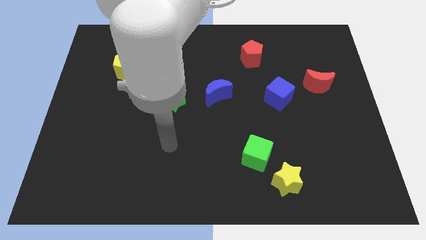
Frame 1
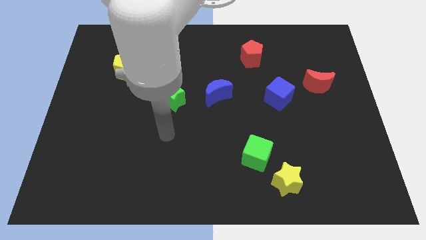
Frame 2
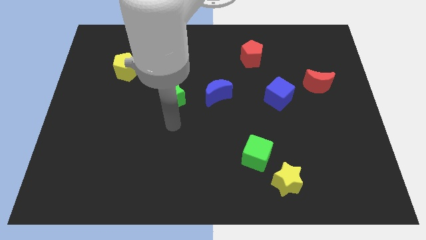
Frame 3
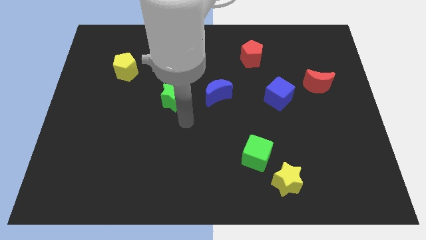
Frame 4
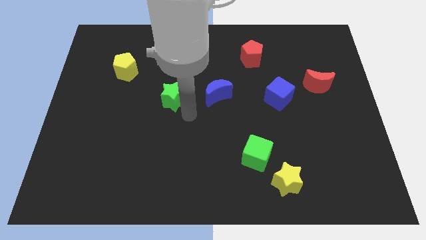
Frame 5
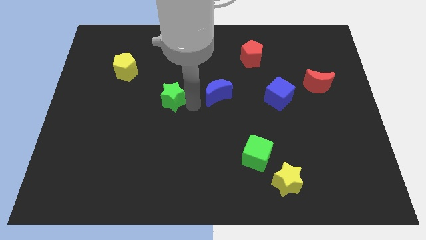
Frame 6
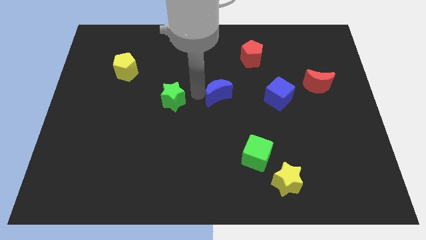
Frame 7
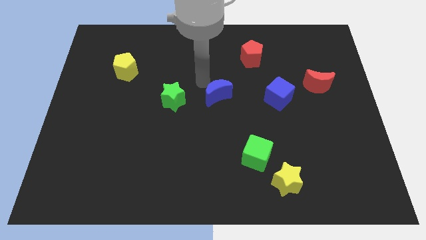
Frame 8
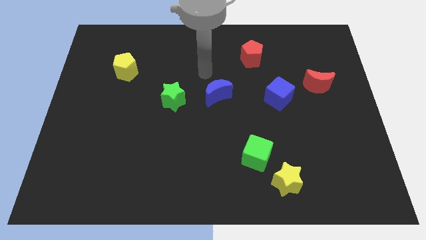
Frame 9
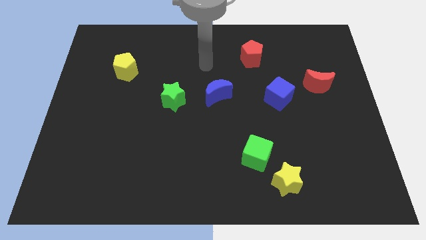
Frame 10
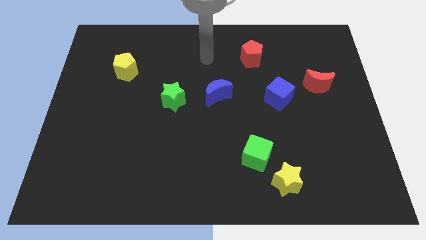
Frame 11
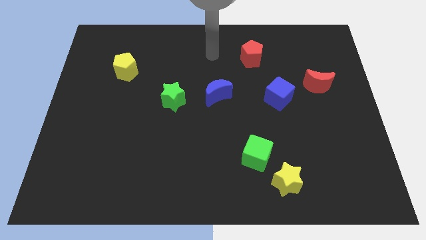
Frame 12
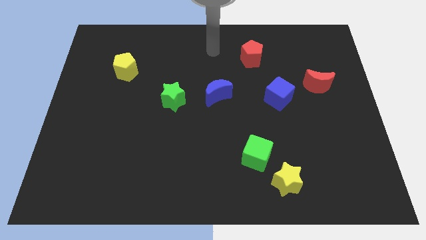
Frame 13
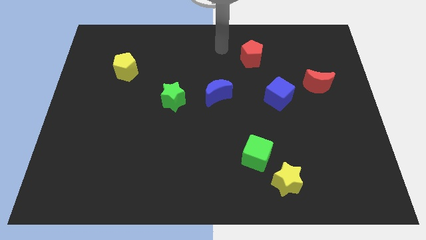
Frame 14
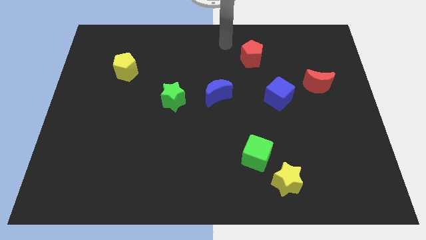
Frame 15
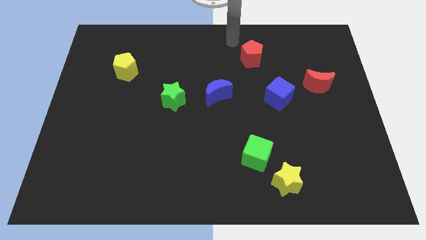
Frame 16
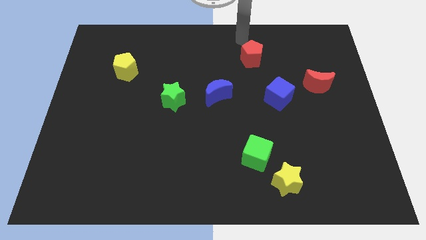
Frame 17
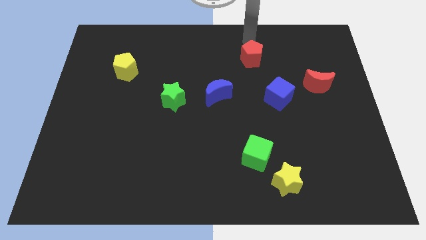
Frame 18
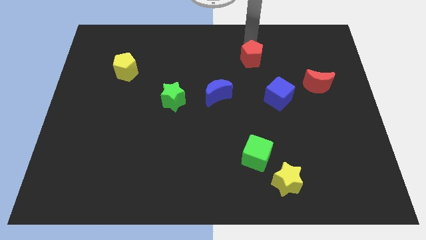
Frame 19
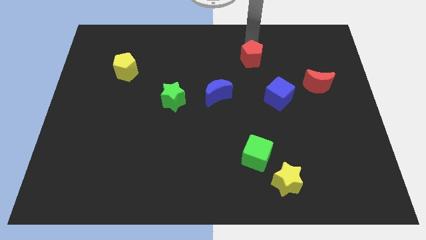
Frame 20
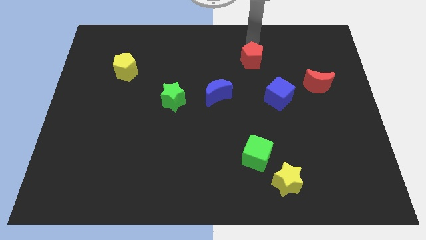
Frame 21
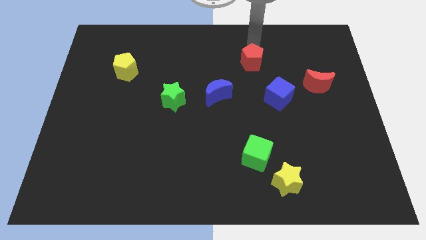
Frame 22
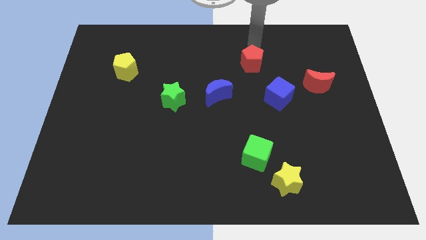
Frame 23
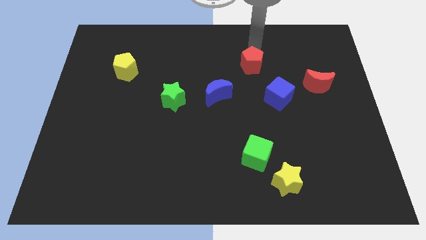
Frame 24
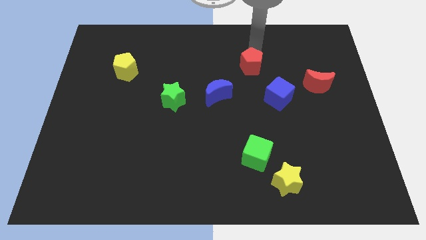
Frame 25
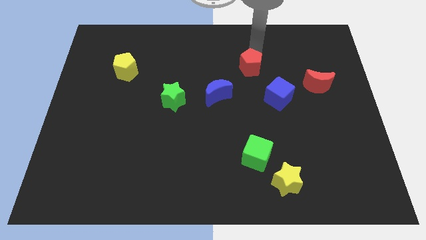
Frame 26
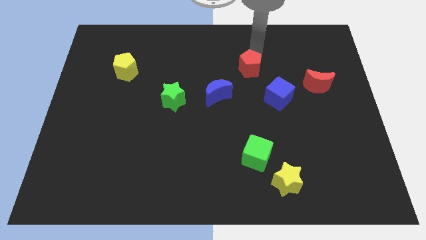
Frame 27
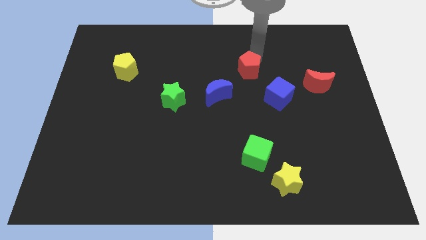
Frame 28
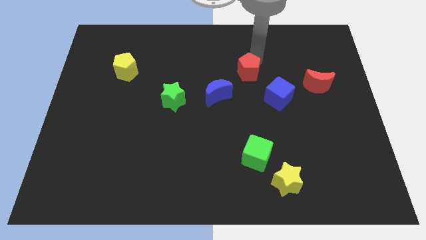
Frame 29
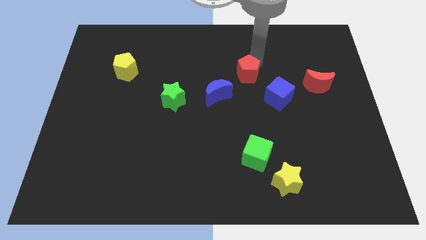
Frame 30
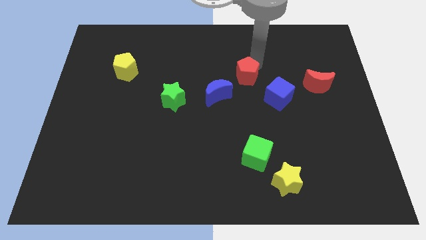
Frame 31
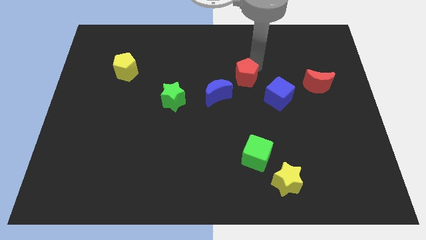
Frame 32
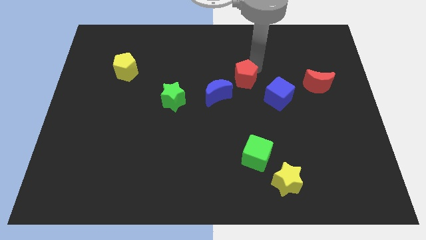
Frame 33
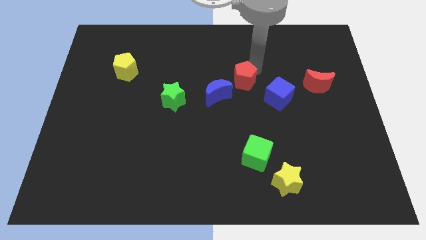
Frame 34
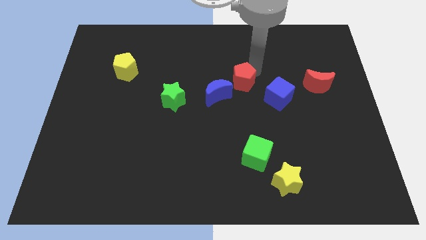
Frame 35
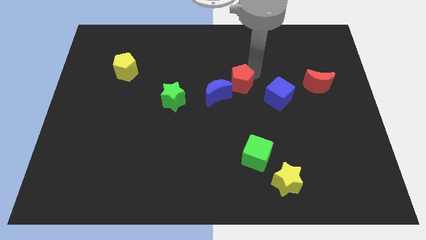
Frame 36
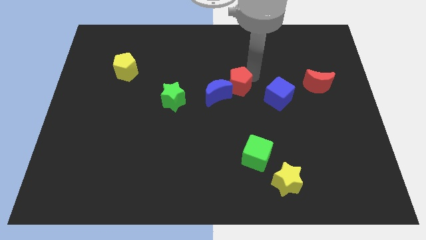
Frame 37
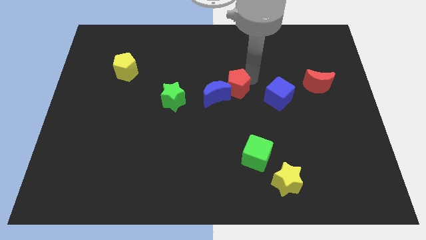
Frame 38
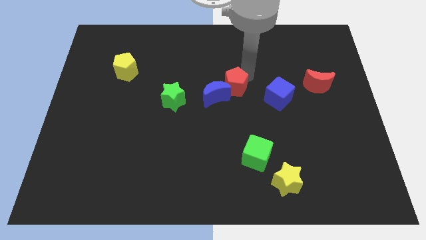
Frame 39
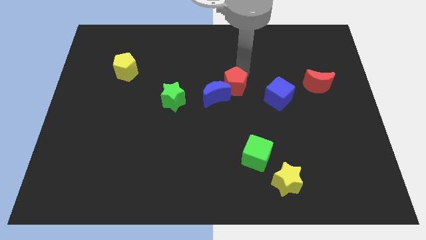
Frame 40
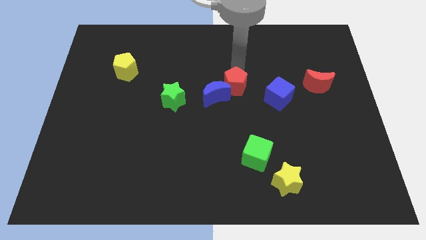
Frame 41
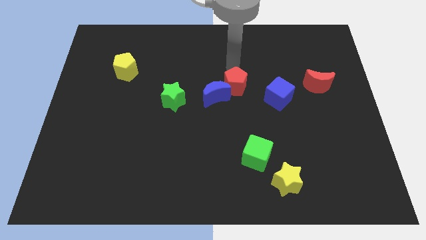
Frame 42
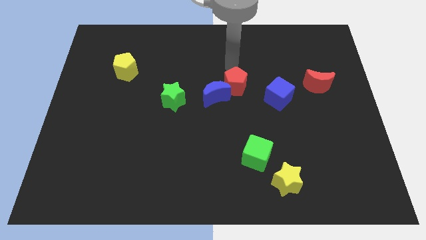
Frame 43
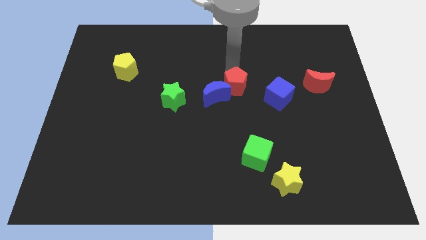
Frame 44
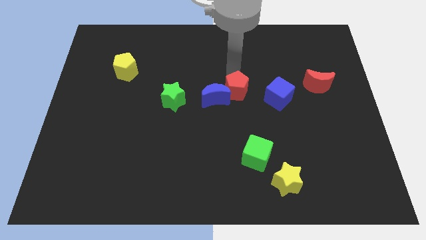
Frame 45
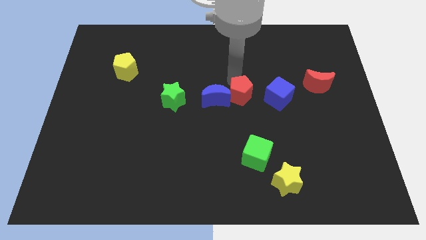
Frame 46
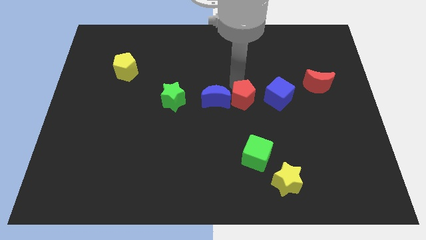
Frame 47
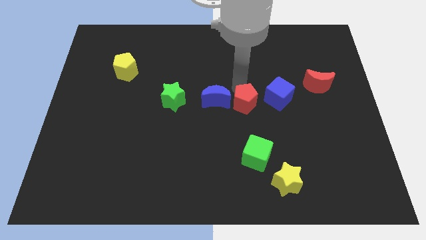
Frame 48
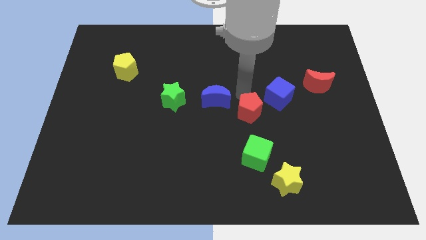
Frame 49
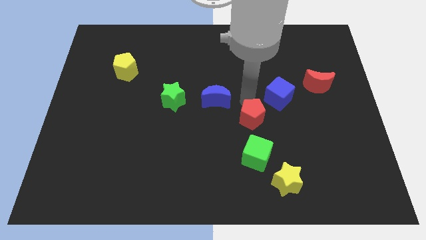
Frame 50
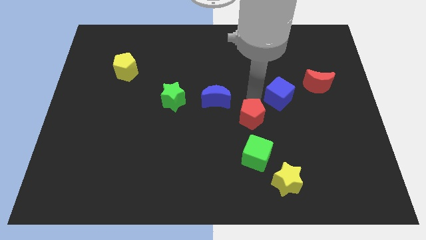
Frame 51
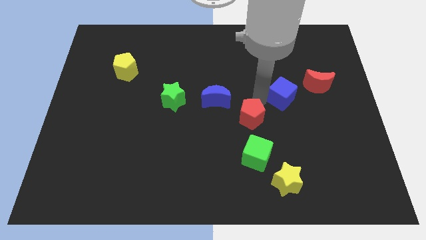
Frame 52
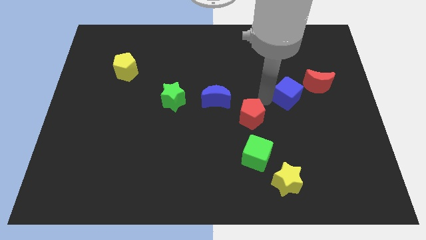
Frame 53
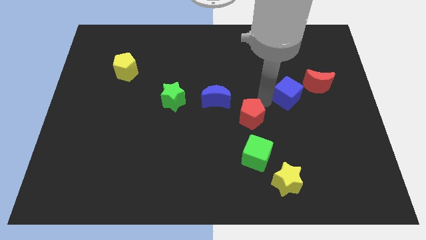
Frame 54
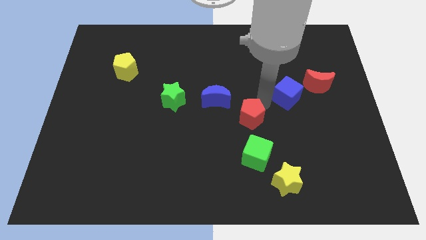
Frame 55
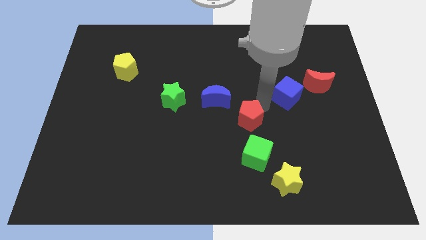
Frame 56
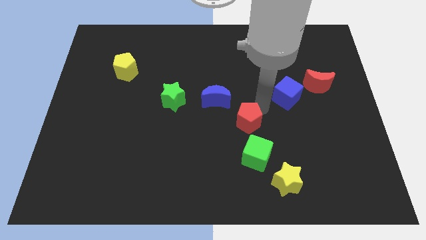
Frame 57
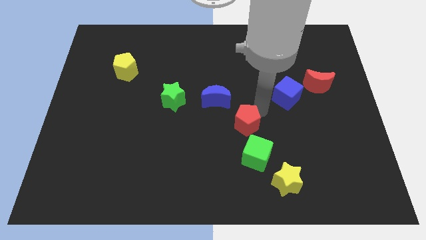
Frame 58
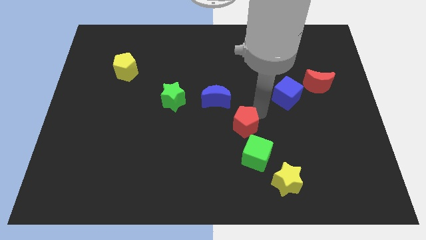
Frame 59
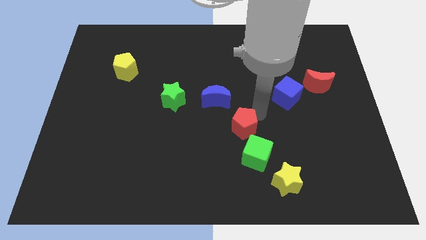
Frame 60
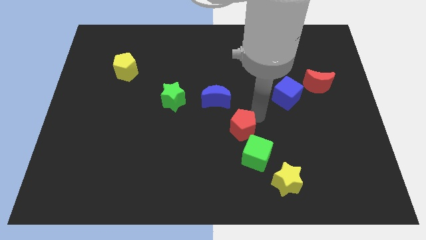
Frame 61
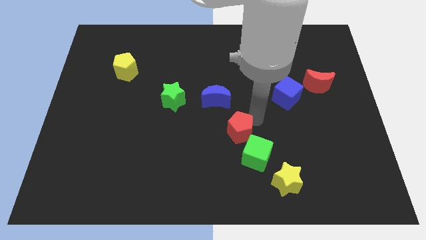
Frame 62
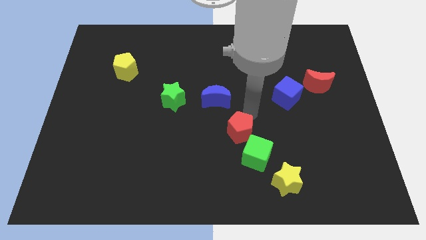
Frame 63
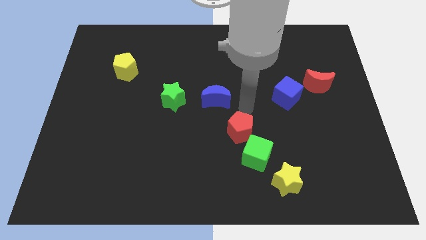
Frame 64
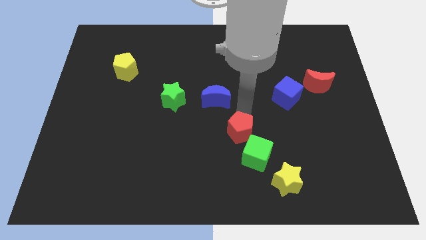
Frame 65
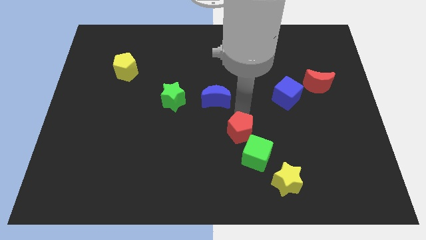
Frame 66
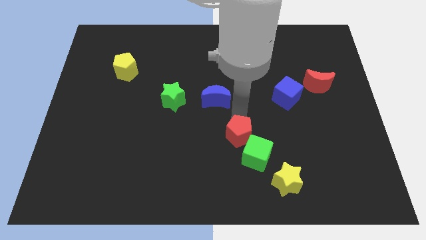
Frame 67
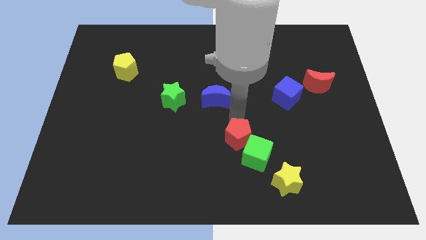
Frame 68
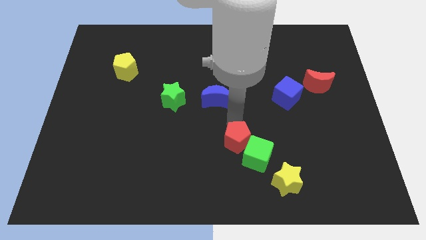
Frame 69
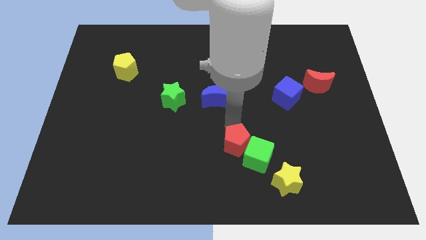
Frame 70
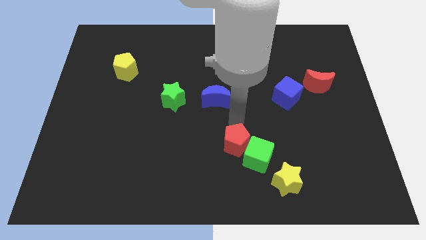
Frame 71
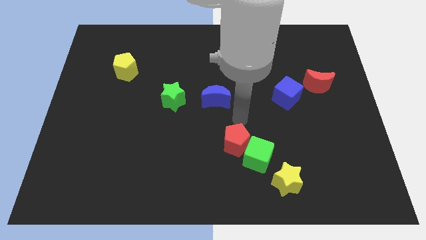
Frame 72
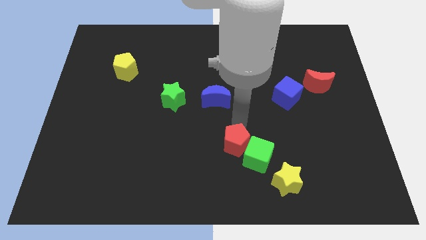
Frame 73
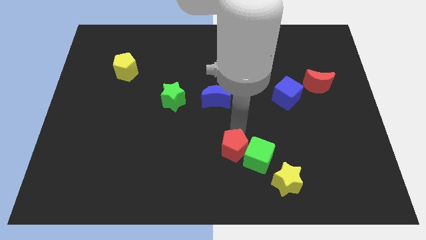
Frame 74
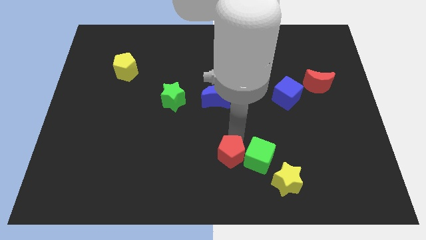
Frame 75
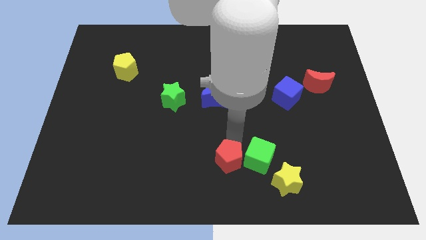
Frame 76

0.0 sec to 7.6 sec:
push the red pentagon to the bottom side
